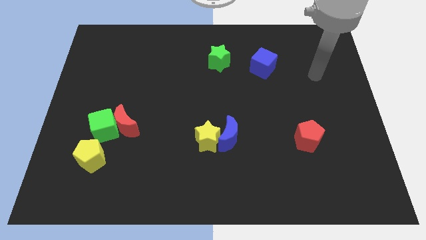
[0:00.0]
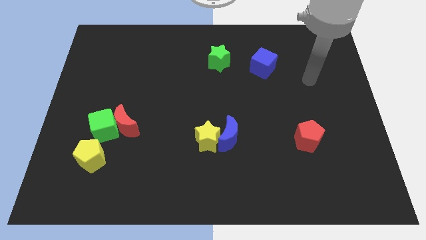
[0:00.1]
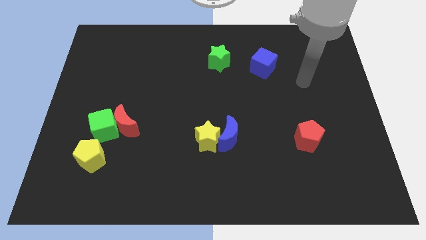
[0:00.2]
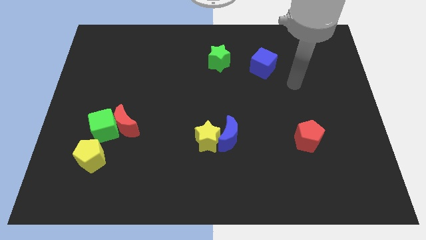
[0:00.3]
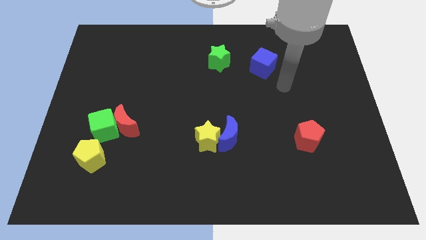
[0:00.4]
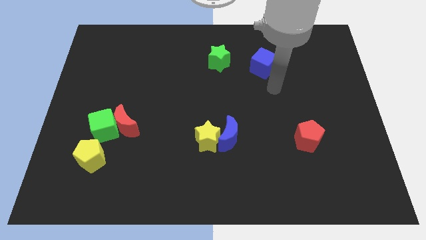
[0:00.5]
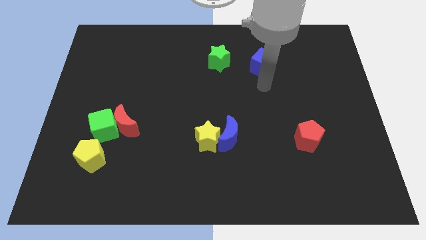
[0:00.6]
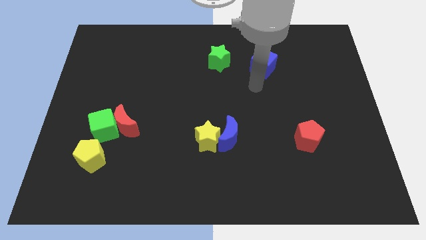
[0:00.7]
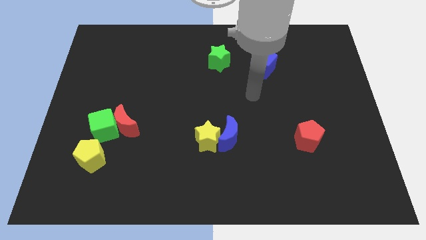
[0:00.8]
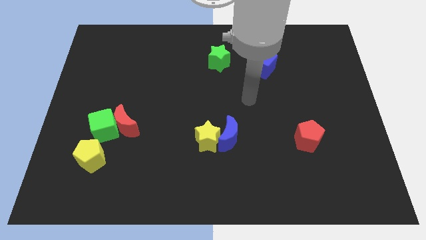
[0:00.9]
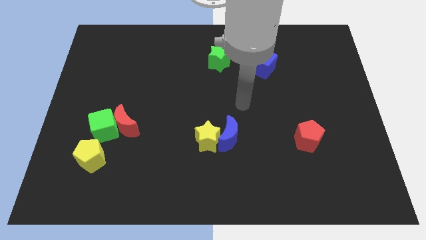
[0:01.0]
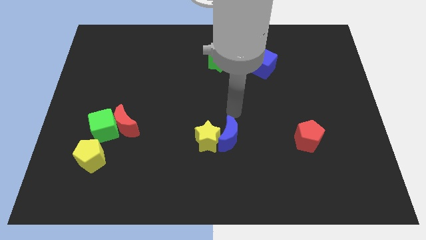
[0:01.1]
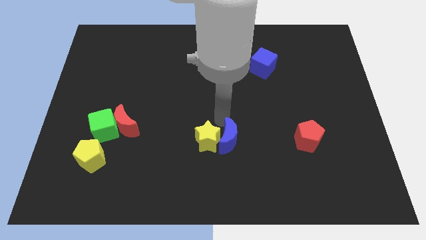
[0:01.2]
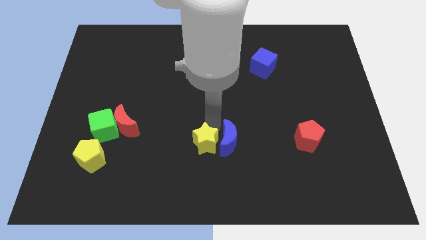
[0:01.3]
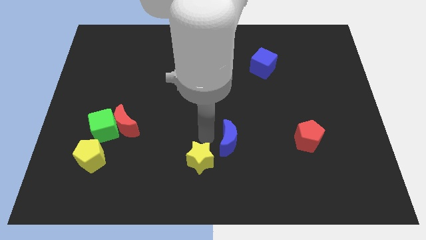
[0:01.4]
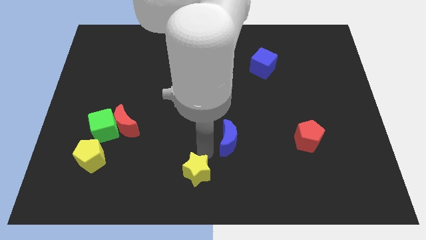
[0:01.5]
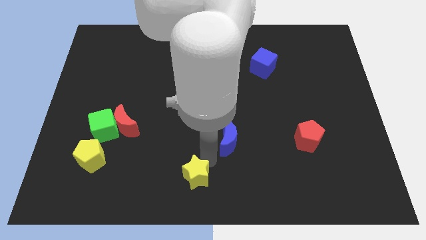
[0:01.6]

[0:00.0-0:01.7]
move the blue moon away from the yellow star

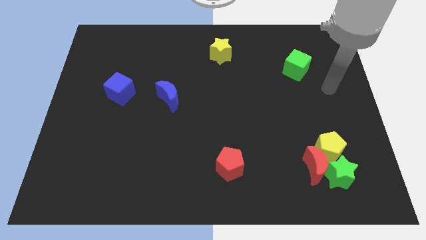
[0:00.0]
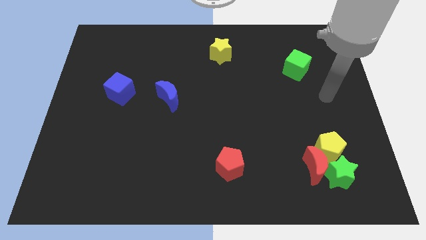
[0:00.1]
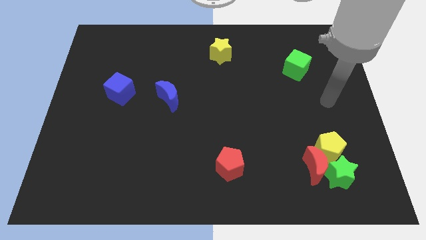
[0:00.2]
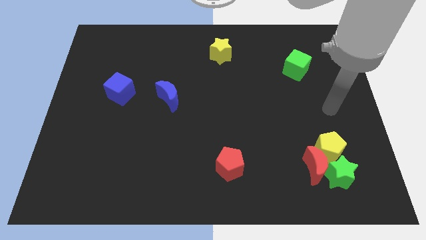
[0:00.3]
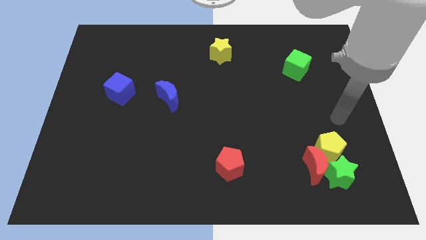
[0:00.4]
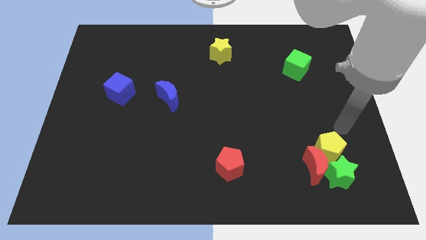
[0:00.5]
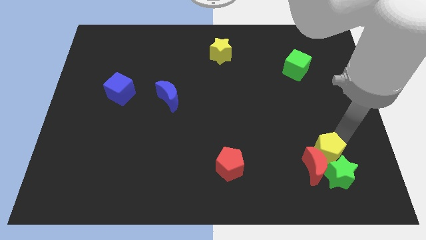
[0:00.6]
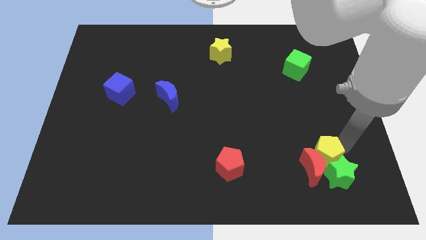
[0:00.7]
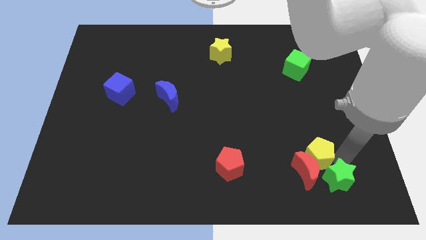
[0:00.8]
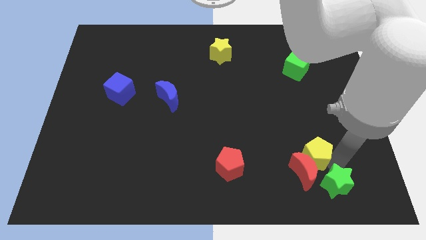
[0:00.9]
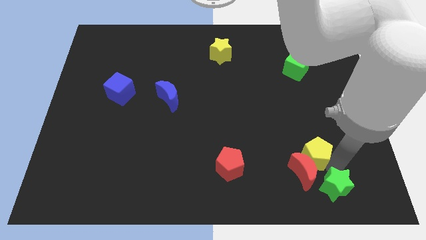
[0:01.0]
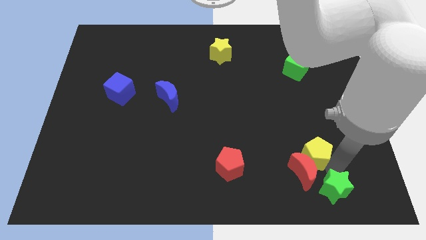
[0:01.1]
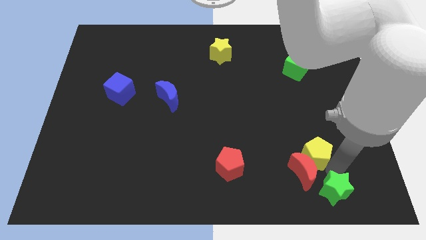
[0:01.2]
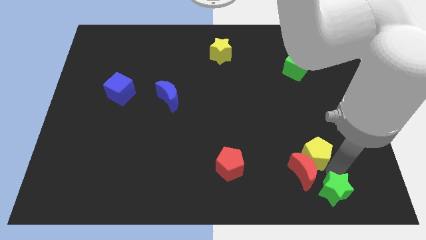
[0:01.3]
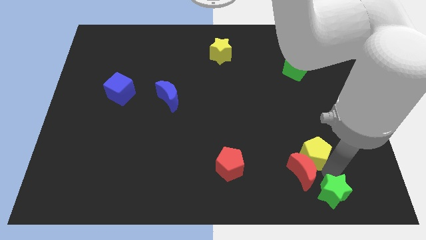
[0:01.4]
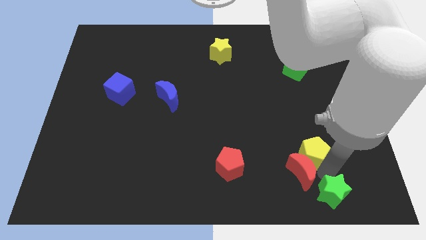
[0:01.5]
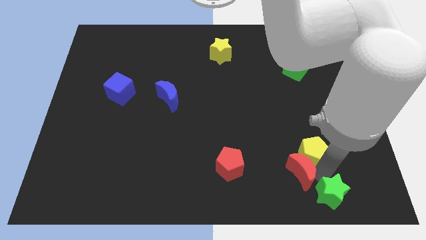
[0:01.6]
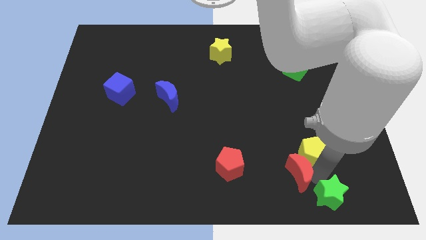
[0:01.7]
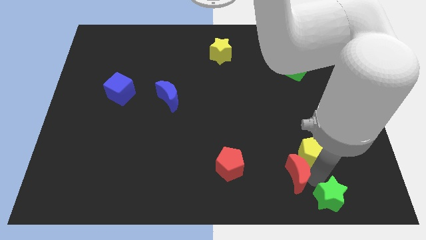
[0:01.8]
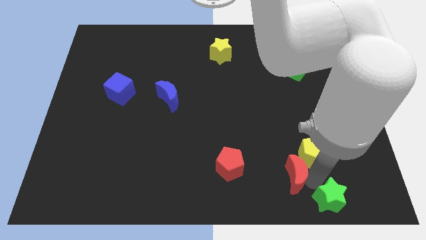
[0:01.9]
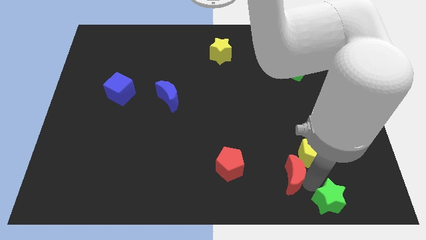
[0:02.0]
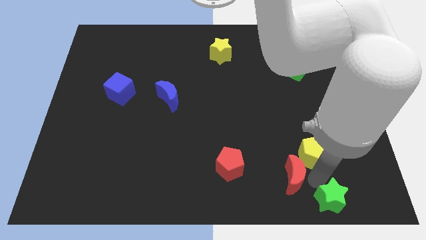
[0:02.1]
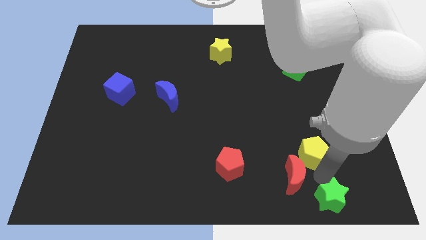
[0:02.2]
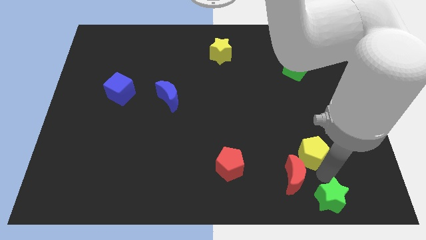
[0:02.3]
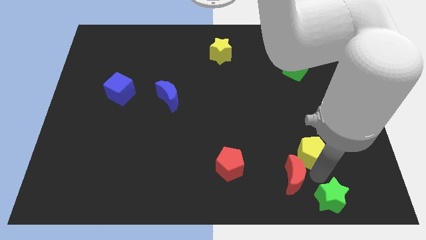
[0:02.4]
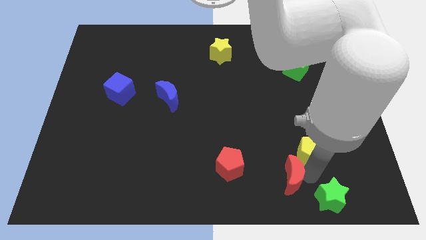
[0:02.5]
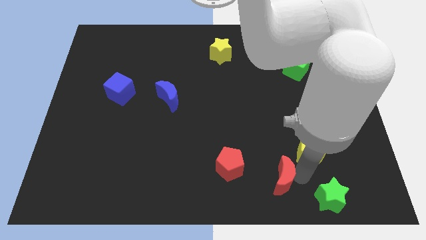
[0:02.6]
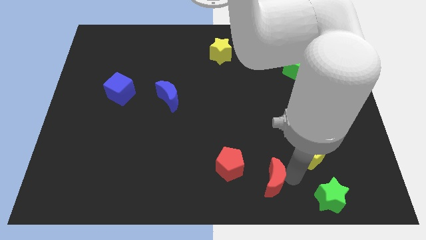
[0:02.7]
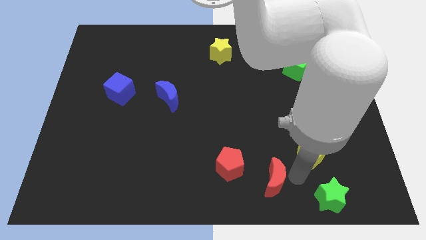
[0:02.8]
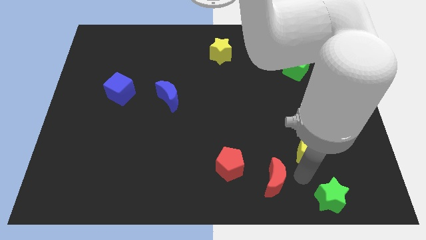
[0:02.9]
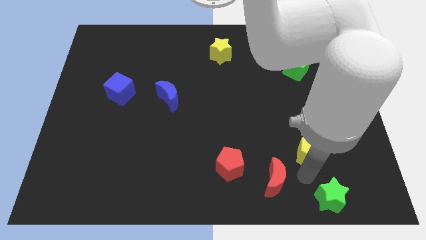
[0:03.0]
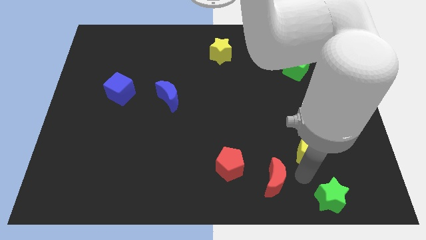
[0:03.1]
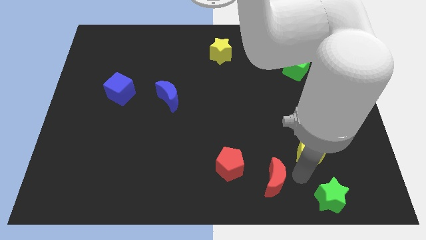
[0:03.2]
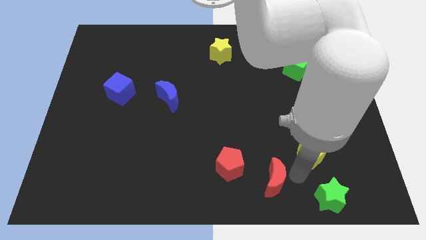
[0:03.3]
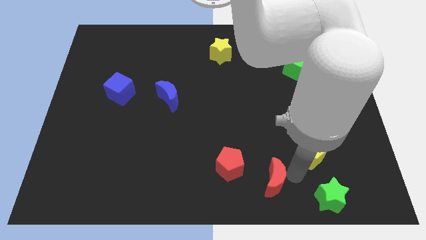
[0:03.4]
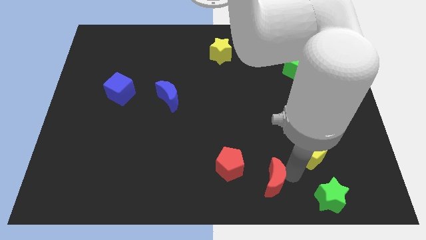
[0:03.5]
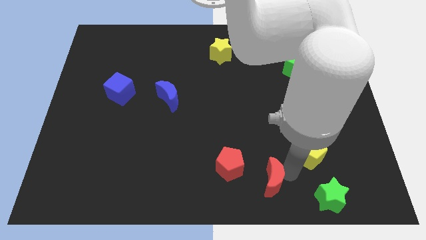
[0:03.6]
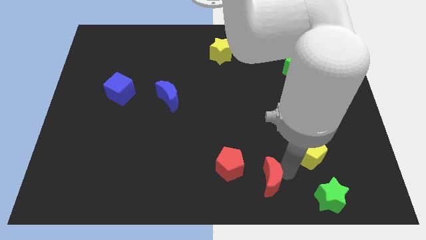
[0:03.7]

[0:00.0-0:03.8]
move the red moon away from the green star and yellow pentagon

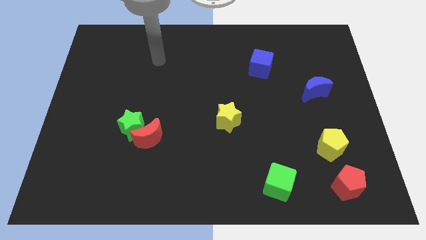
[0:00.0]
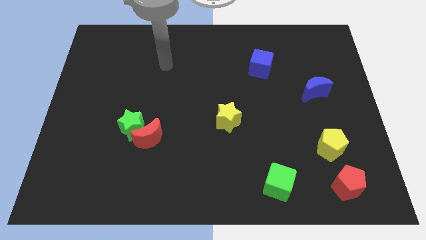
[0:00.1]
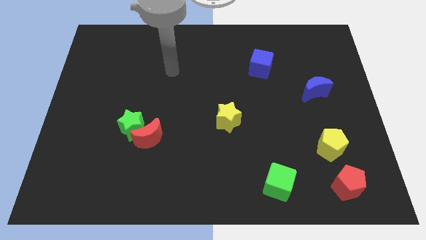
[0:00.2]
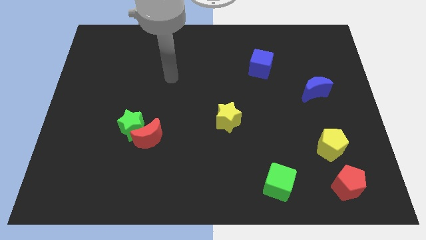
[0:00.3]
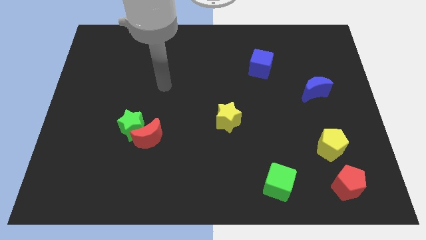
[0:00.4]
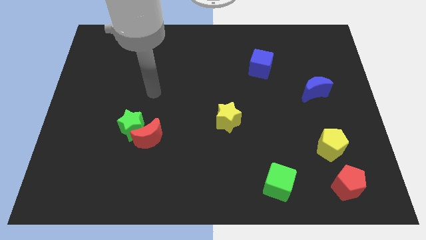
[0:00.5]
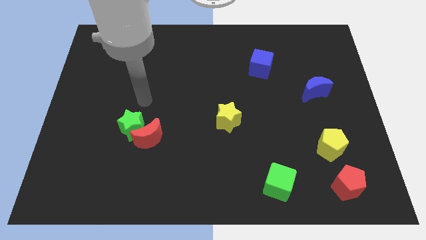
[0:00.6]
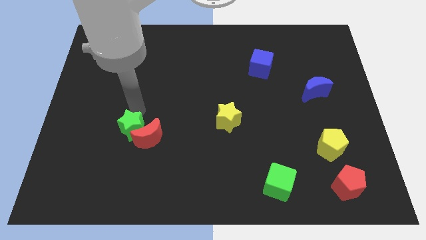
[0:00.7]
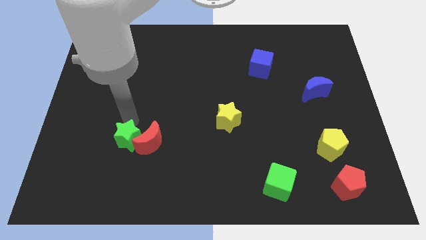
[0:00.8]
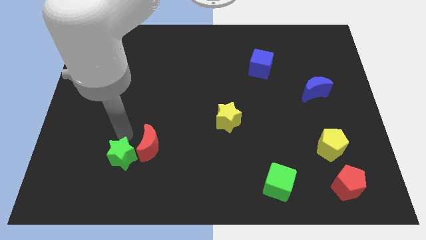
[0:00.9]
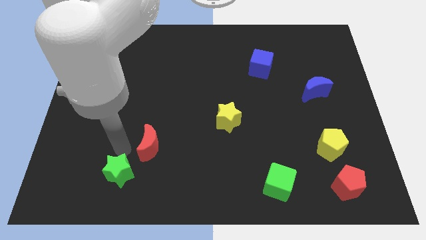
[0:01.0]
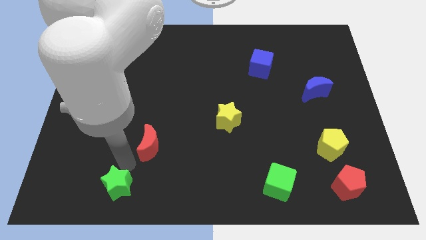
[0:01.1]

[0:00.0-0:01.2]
separate the red moon from the green star

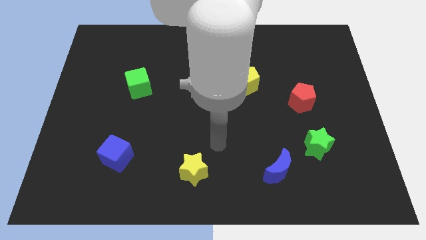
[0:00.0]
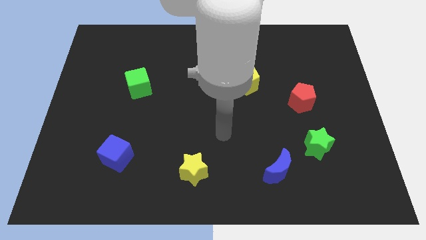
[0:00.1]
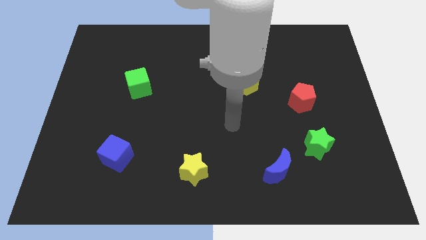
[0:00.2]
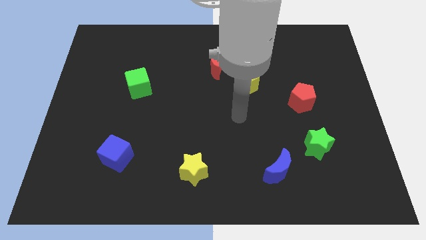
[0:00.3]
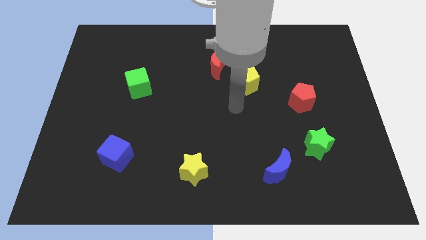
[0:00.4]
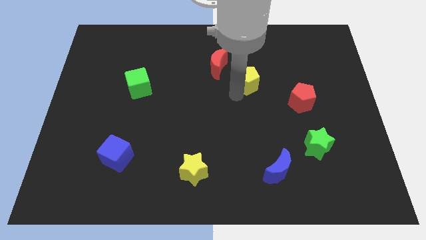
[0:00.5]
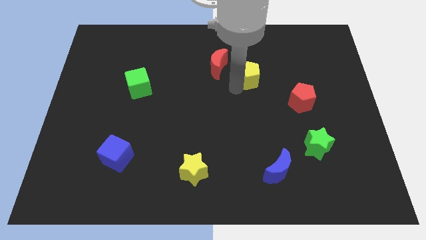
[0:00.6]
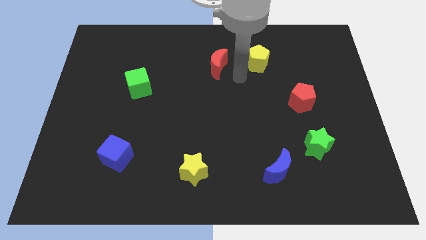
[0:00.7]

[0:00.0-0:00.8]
move the red moon away from the yellow pentagon

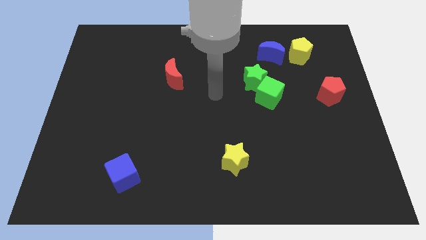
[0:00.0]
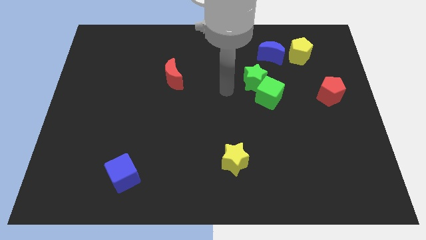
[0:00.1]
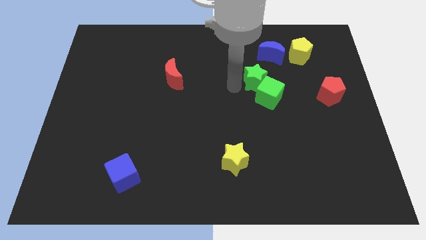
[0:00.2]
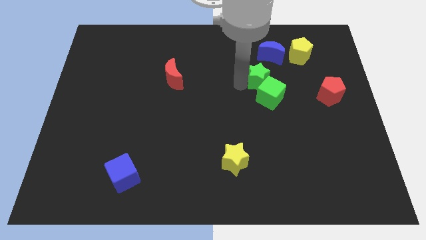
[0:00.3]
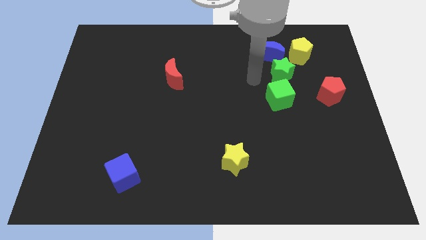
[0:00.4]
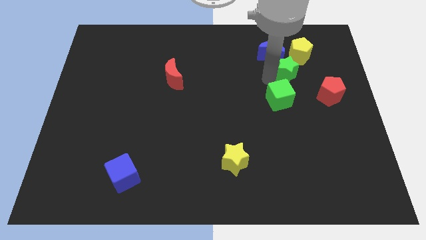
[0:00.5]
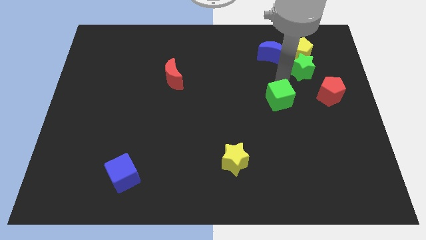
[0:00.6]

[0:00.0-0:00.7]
move the green cube away from the green star

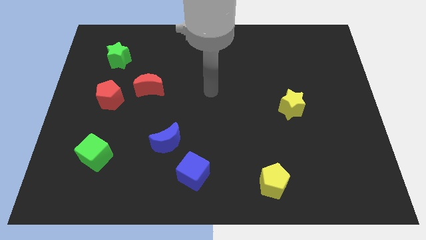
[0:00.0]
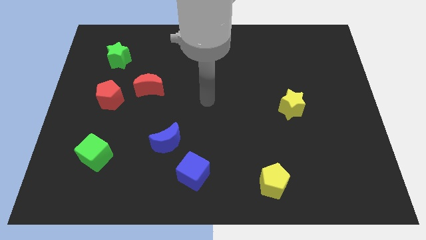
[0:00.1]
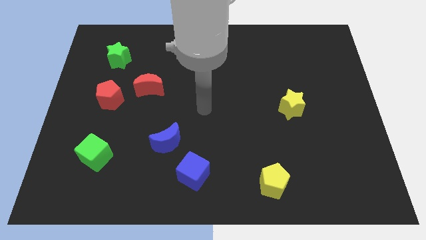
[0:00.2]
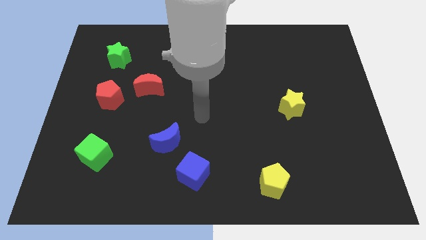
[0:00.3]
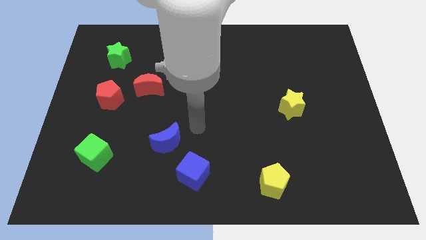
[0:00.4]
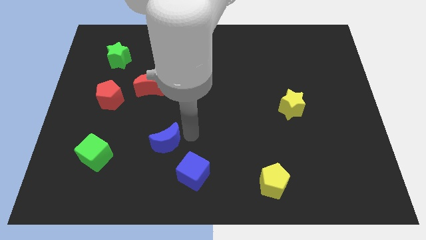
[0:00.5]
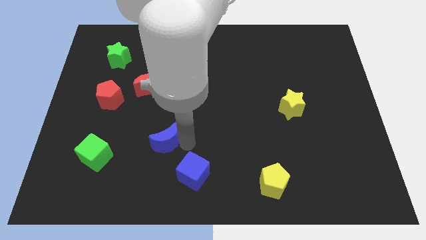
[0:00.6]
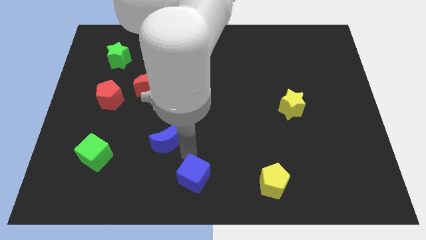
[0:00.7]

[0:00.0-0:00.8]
separate the blue moon from the blue cube

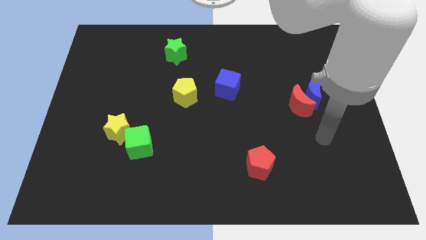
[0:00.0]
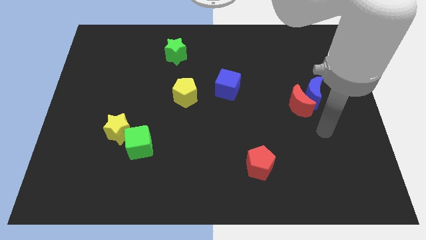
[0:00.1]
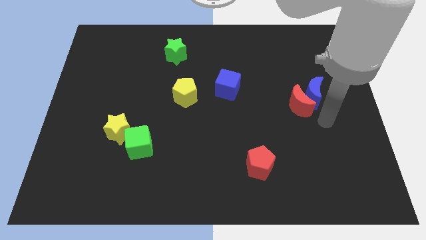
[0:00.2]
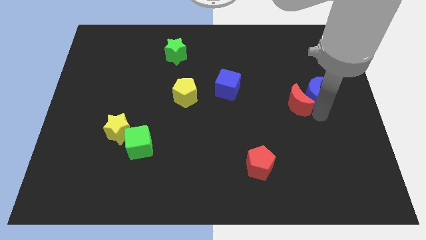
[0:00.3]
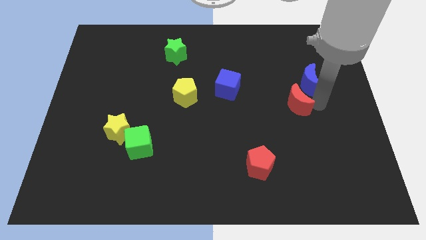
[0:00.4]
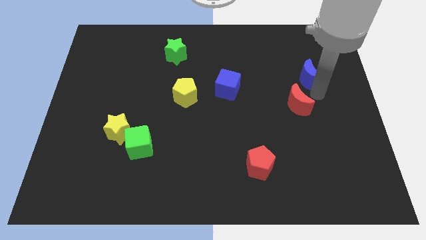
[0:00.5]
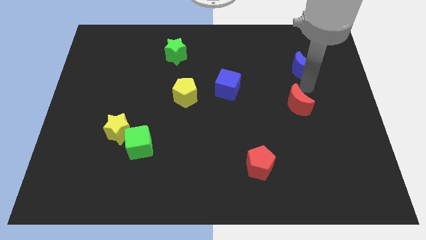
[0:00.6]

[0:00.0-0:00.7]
separate the red moon from the blue moon
